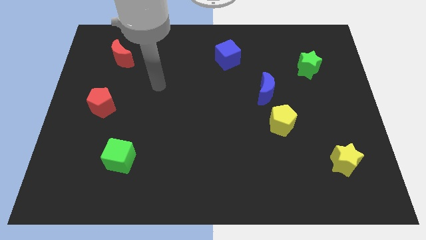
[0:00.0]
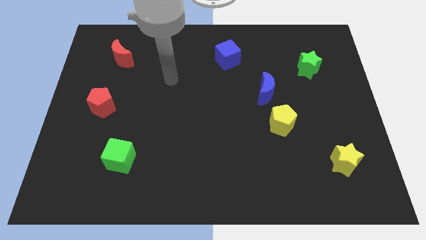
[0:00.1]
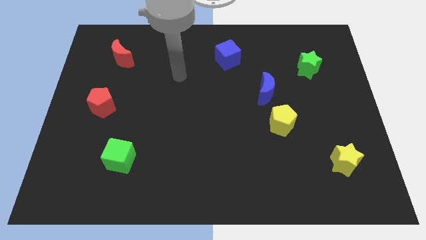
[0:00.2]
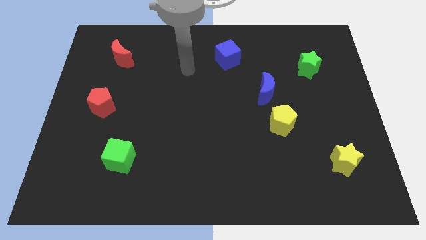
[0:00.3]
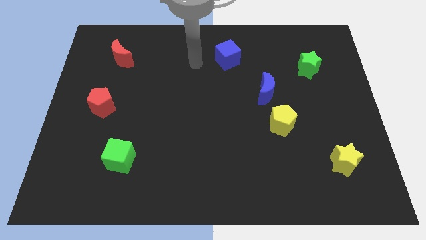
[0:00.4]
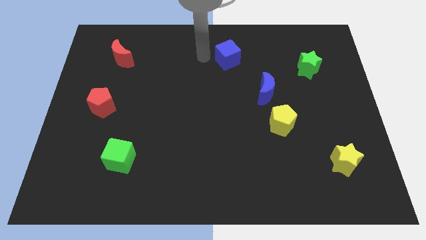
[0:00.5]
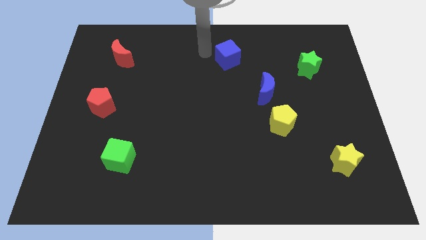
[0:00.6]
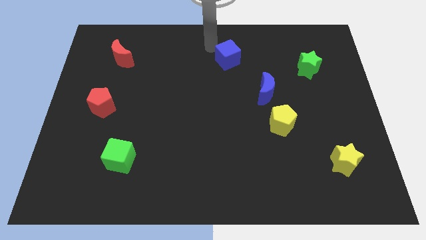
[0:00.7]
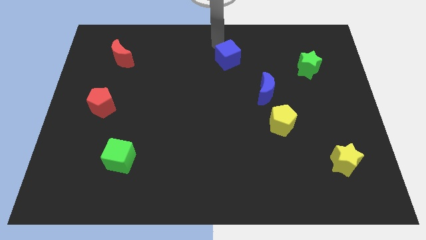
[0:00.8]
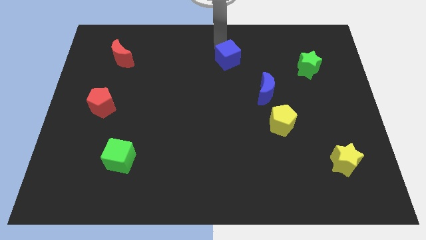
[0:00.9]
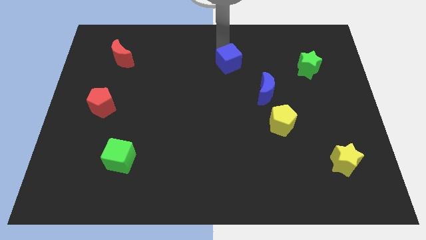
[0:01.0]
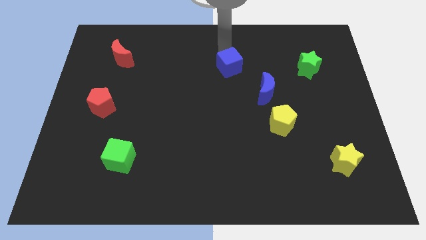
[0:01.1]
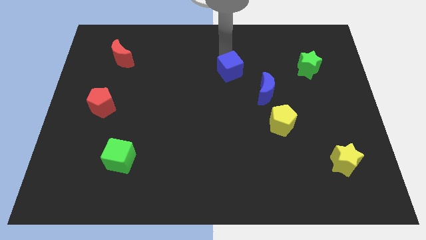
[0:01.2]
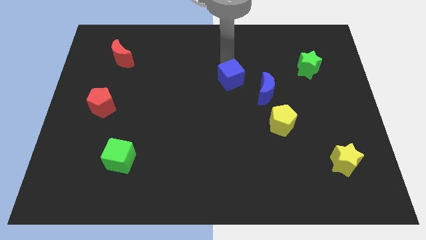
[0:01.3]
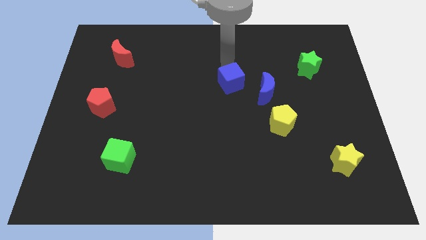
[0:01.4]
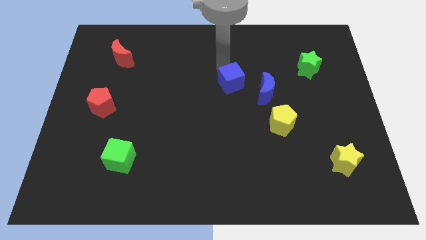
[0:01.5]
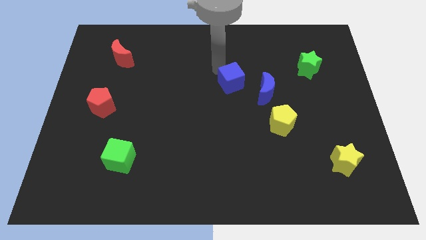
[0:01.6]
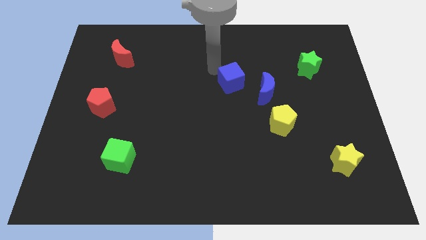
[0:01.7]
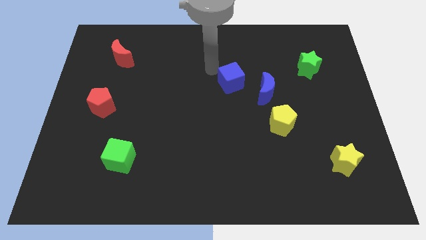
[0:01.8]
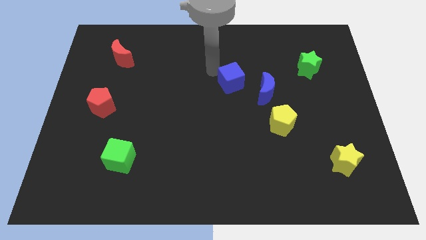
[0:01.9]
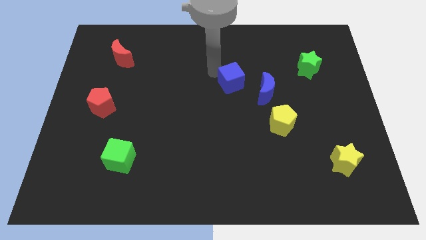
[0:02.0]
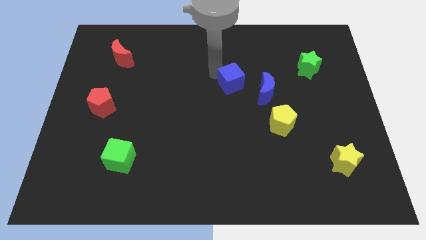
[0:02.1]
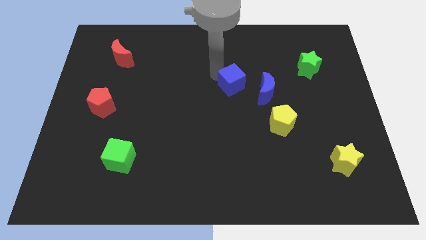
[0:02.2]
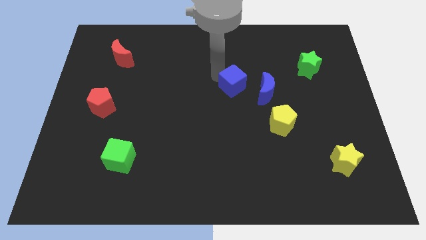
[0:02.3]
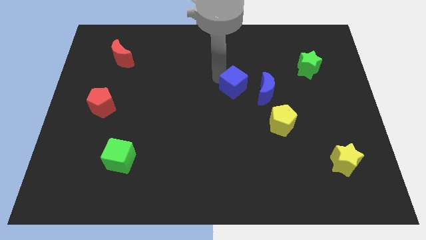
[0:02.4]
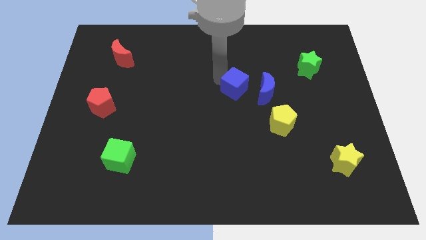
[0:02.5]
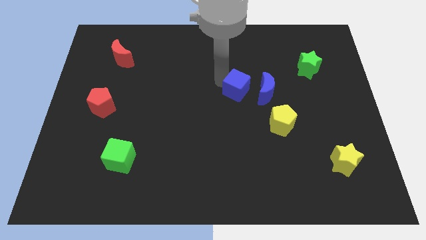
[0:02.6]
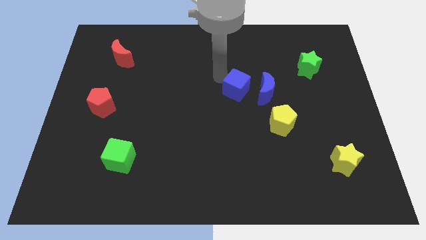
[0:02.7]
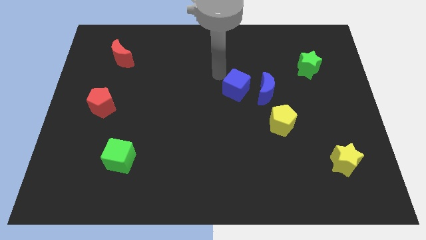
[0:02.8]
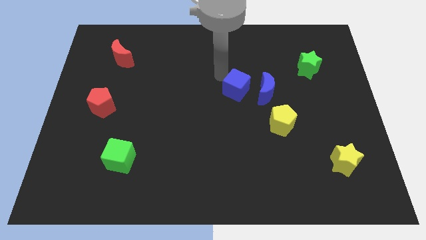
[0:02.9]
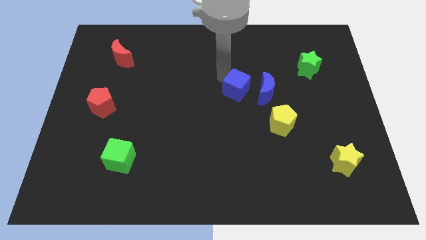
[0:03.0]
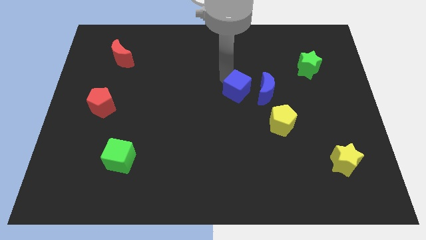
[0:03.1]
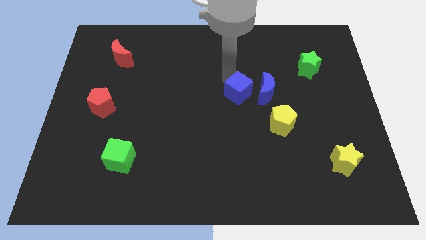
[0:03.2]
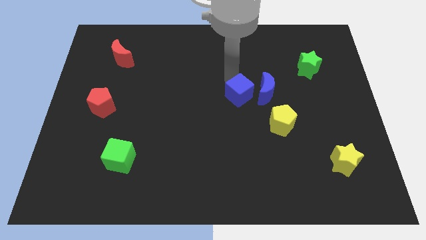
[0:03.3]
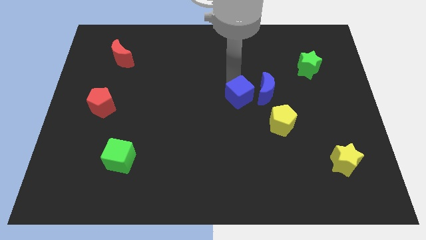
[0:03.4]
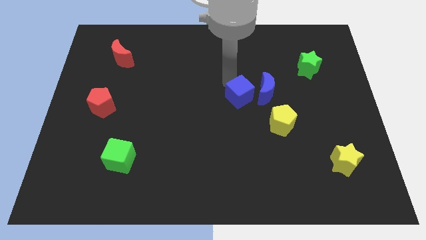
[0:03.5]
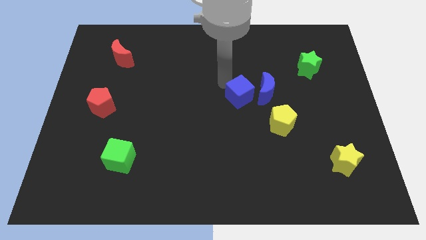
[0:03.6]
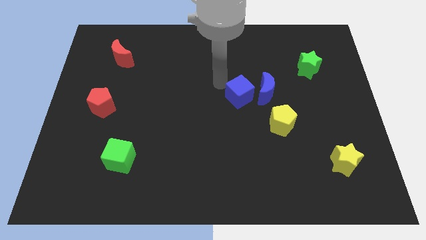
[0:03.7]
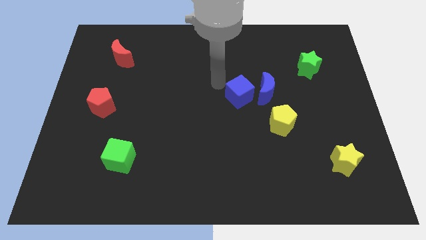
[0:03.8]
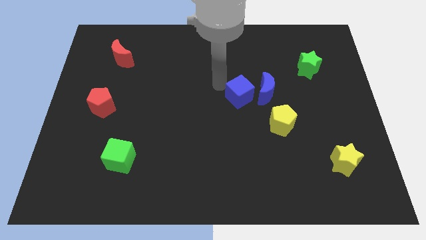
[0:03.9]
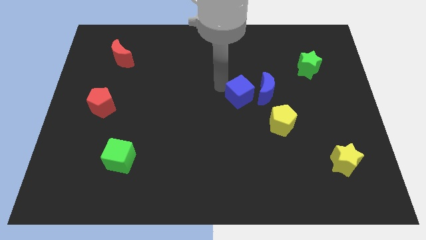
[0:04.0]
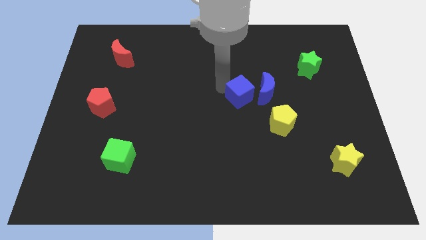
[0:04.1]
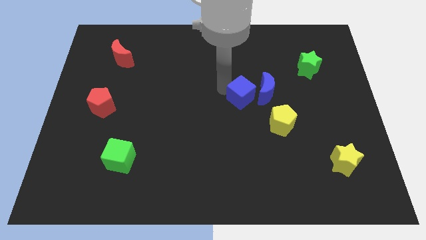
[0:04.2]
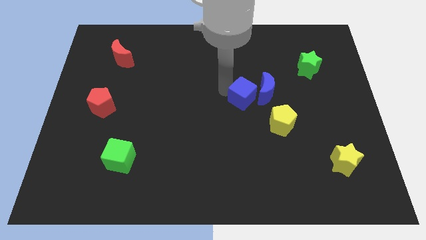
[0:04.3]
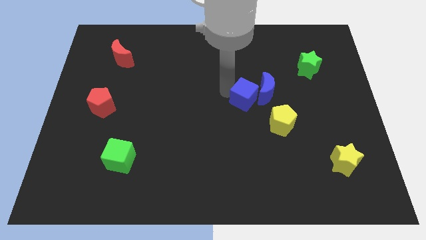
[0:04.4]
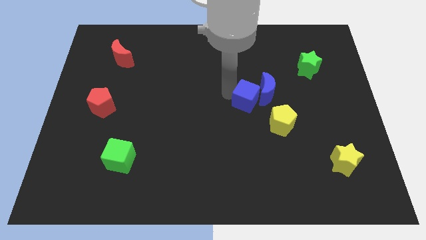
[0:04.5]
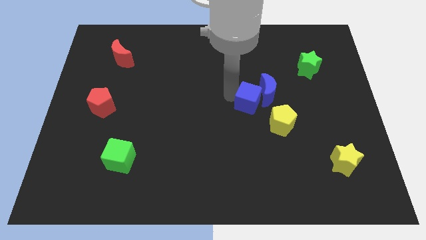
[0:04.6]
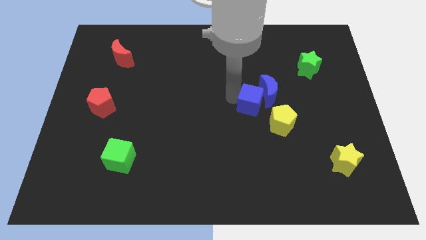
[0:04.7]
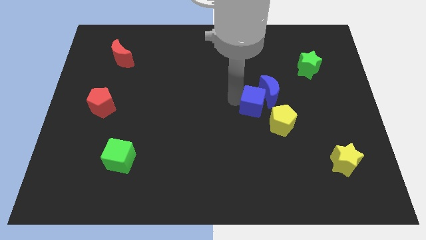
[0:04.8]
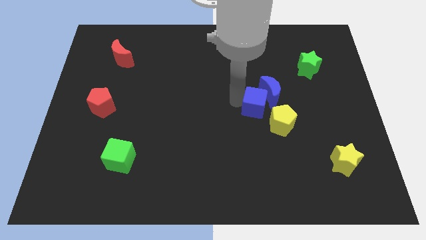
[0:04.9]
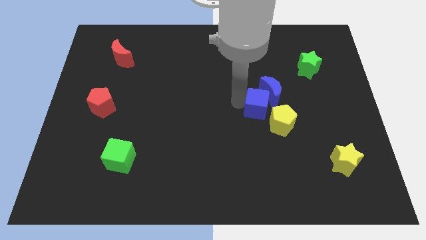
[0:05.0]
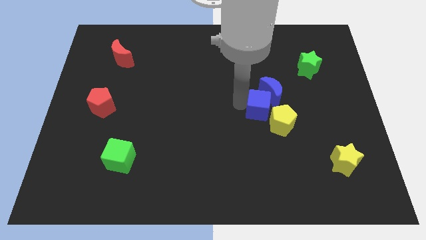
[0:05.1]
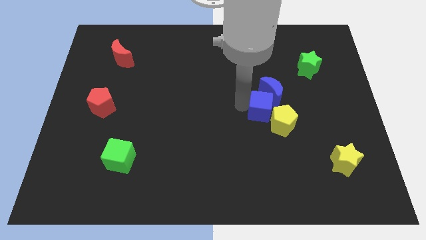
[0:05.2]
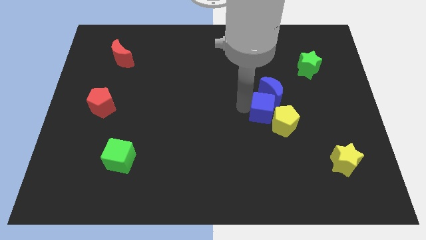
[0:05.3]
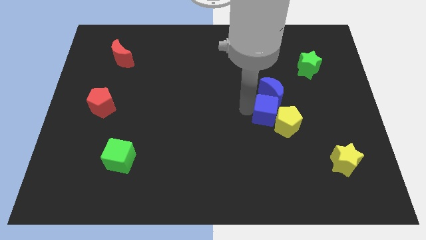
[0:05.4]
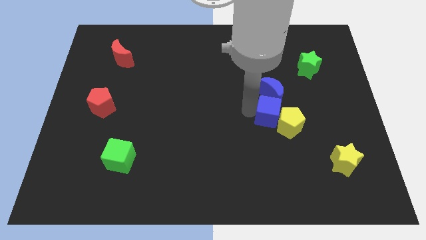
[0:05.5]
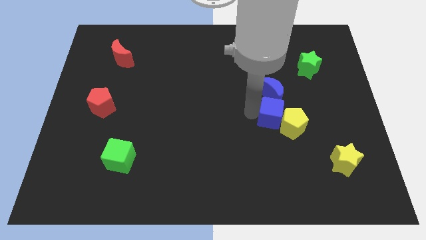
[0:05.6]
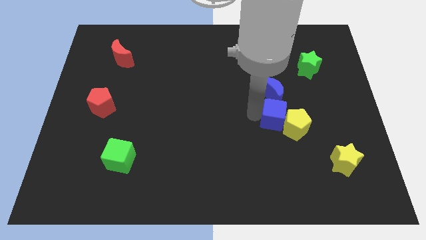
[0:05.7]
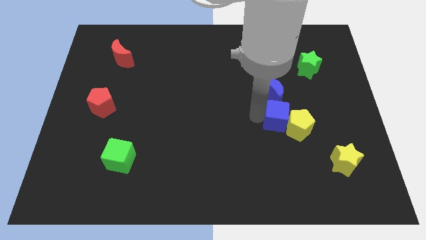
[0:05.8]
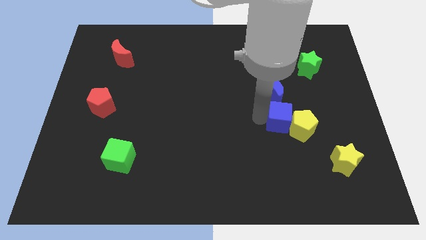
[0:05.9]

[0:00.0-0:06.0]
push the blue cube diagonally down and to the right of the blue moon

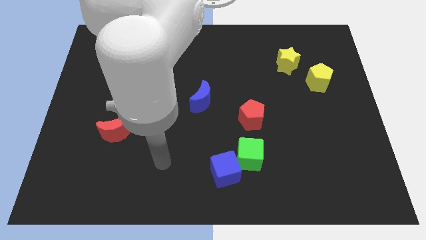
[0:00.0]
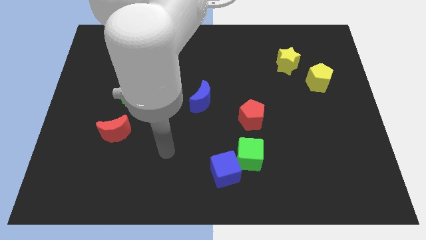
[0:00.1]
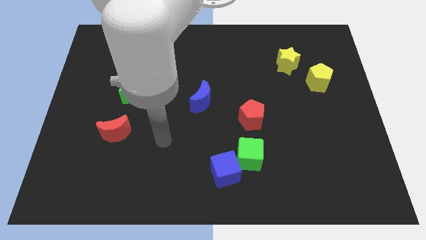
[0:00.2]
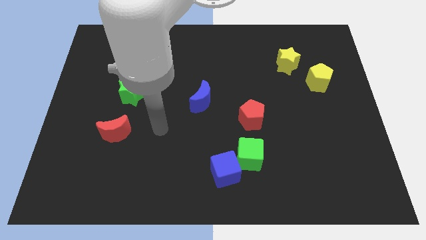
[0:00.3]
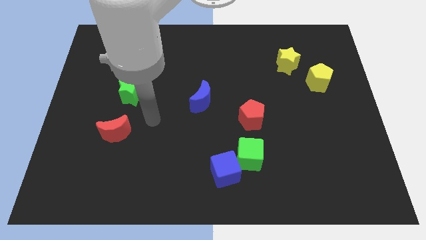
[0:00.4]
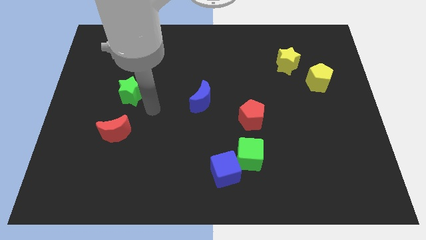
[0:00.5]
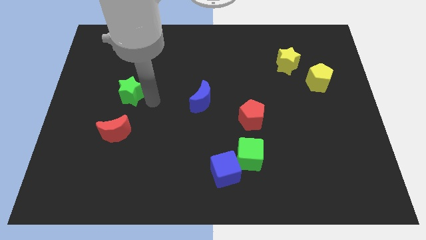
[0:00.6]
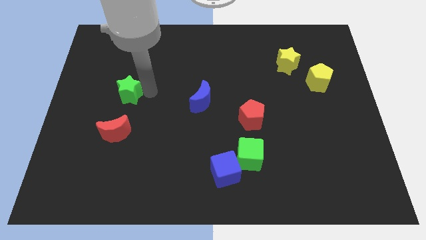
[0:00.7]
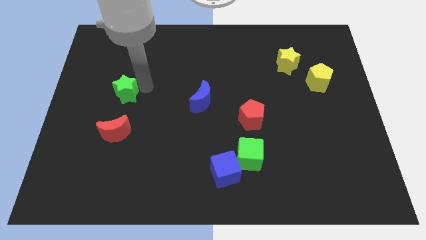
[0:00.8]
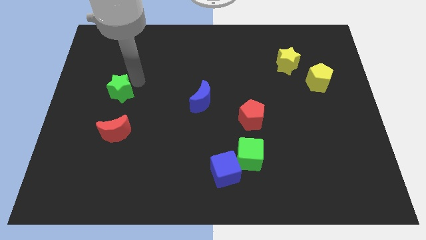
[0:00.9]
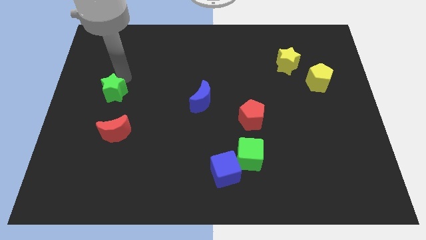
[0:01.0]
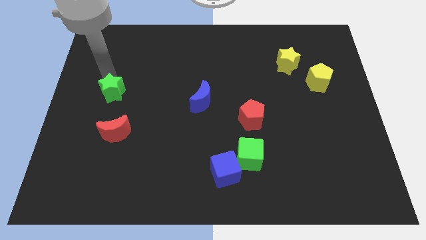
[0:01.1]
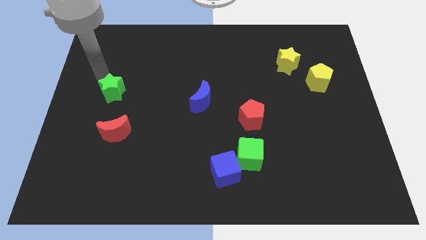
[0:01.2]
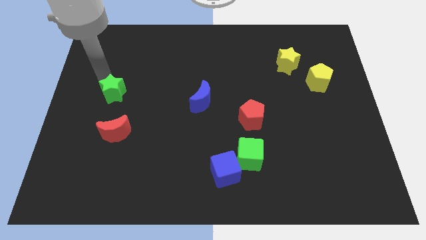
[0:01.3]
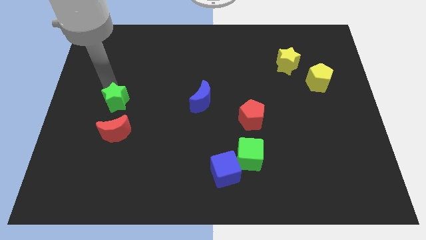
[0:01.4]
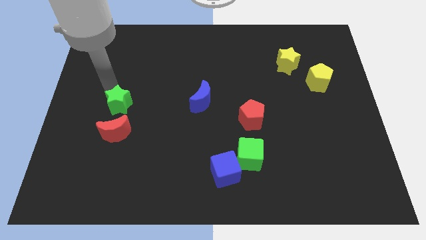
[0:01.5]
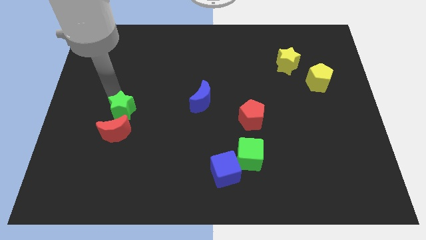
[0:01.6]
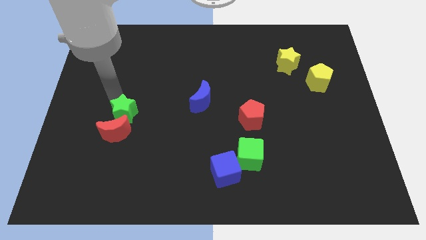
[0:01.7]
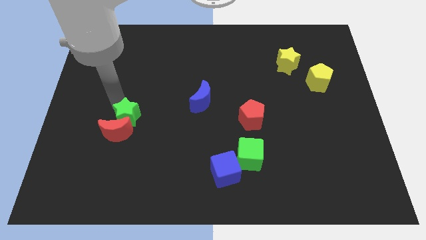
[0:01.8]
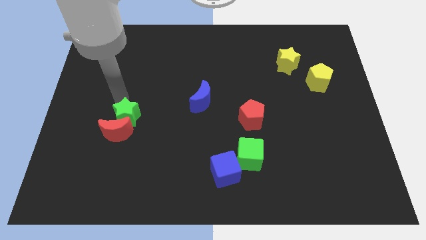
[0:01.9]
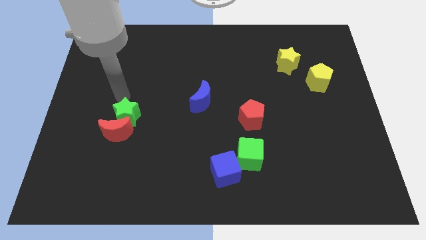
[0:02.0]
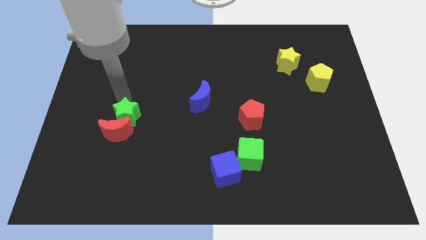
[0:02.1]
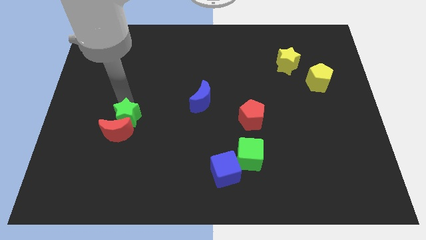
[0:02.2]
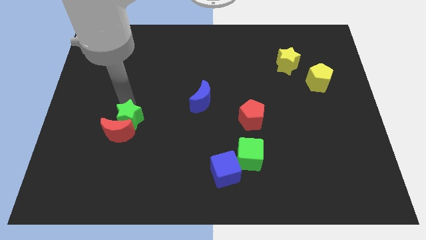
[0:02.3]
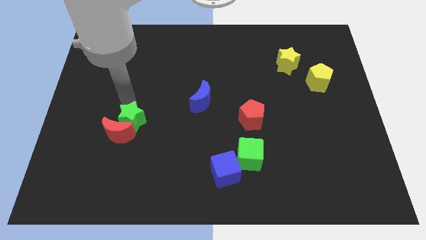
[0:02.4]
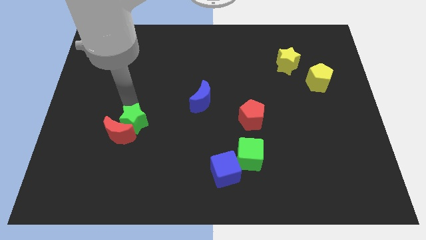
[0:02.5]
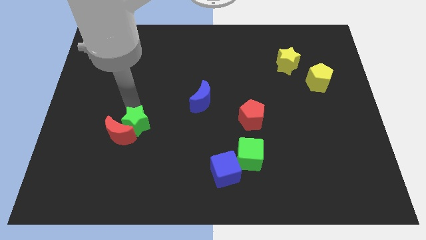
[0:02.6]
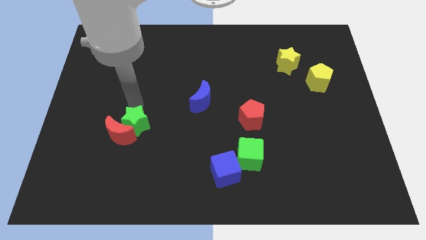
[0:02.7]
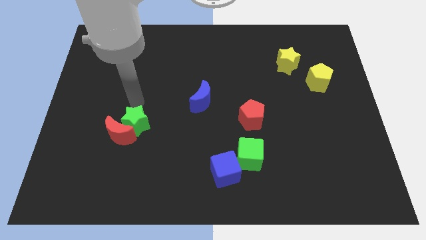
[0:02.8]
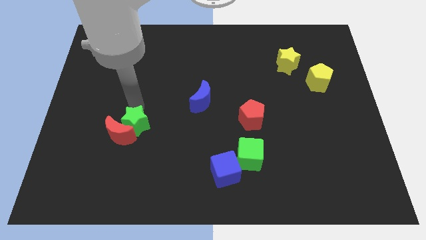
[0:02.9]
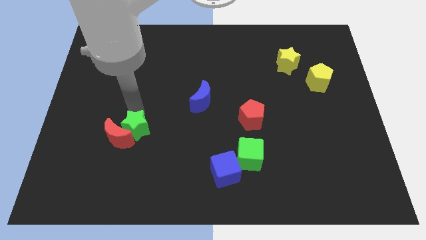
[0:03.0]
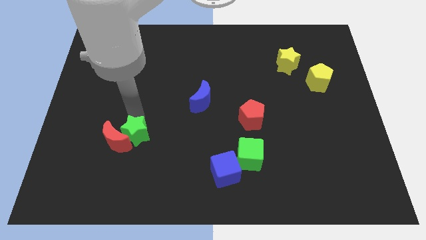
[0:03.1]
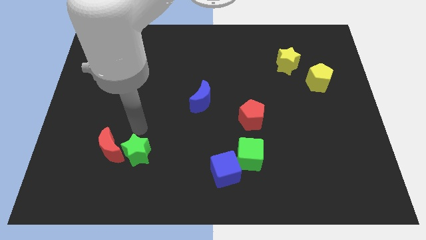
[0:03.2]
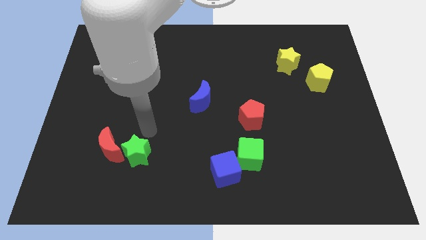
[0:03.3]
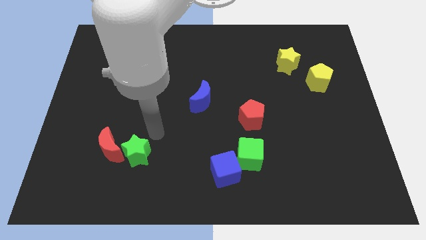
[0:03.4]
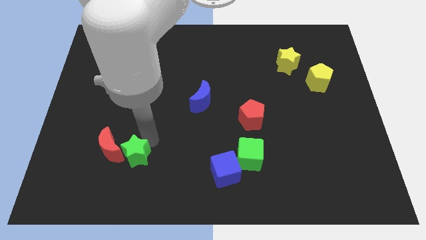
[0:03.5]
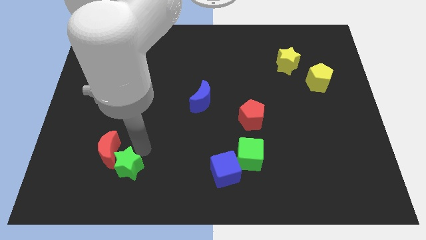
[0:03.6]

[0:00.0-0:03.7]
put the green star to the bottom side of the red moon
